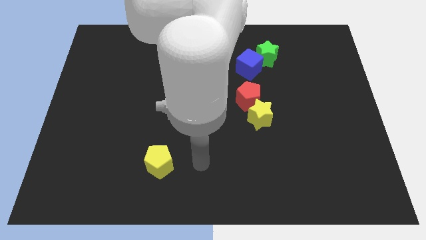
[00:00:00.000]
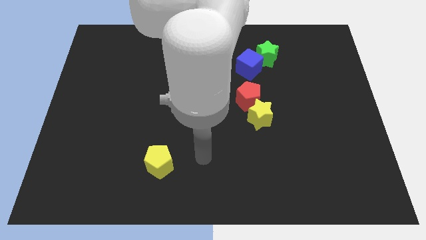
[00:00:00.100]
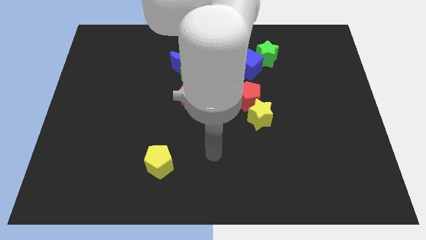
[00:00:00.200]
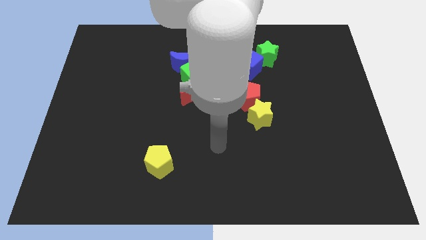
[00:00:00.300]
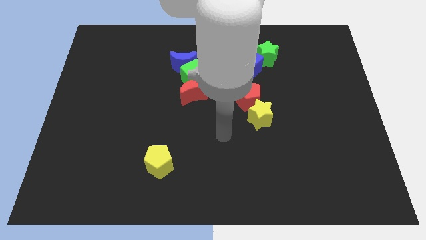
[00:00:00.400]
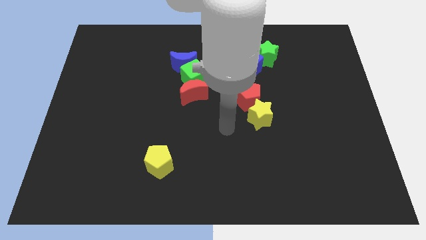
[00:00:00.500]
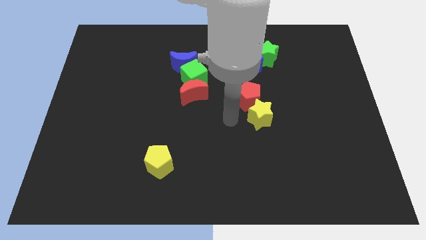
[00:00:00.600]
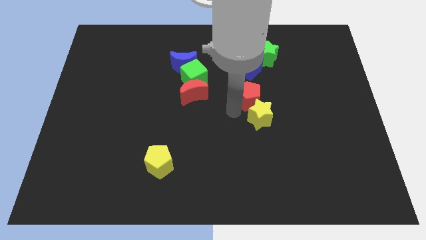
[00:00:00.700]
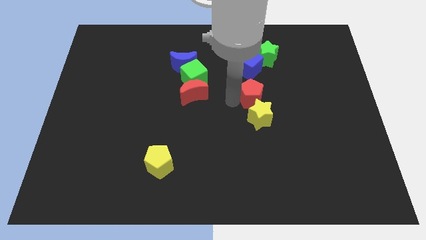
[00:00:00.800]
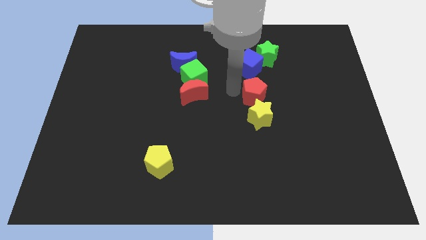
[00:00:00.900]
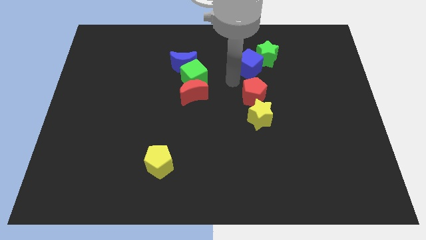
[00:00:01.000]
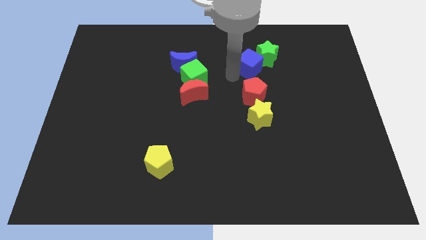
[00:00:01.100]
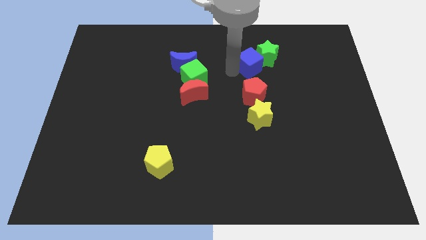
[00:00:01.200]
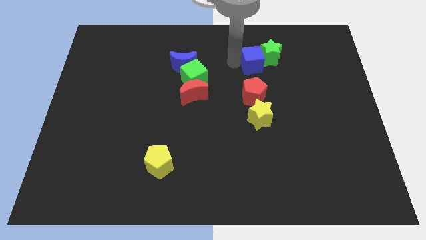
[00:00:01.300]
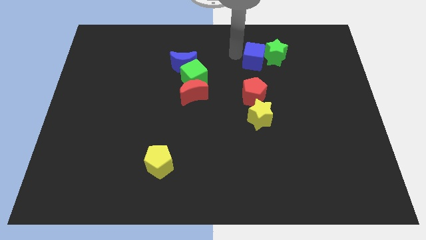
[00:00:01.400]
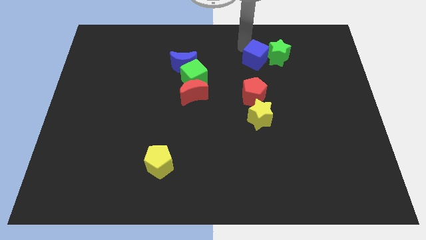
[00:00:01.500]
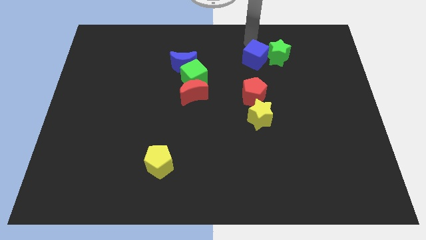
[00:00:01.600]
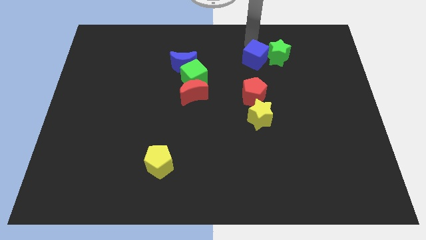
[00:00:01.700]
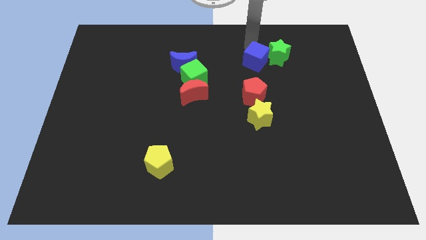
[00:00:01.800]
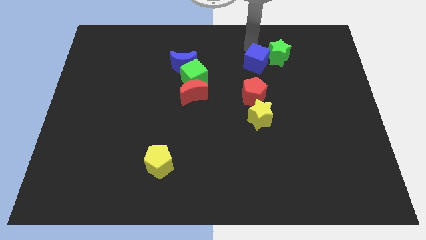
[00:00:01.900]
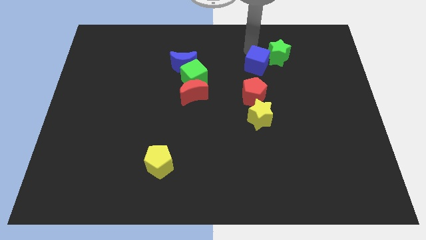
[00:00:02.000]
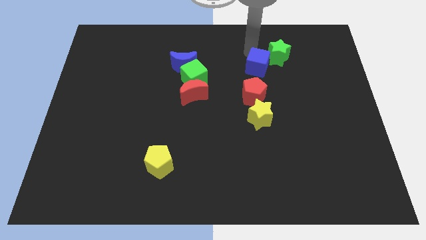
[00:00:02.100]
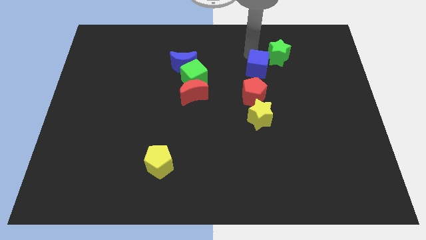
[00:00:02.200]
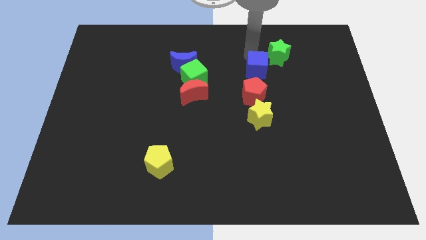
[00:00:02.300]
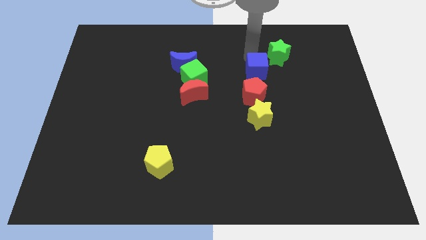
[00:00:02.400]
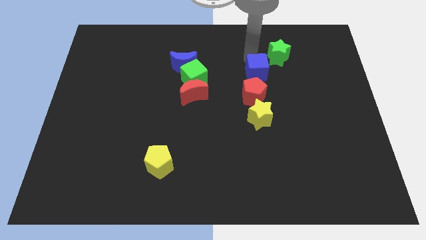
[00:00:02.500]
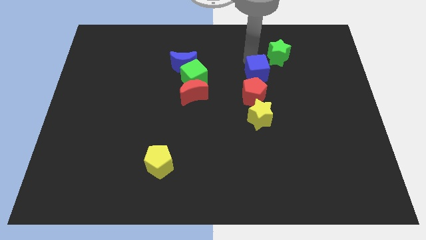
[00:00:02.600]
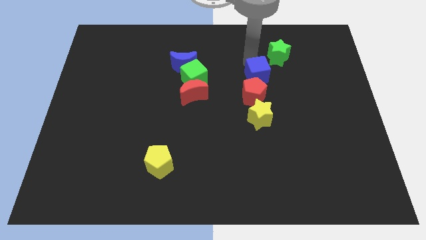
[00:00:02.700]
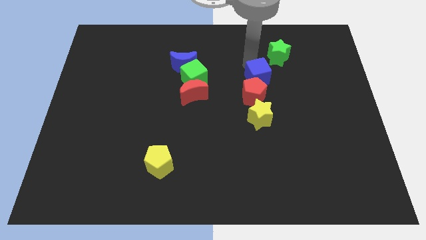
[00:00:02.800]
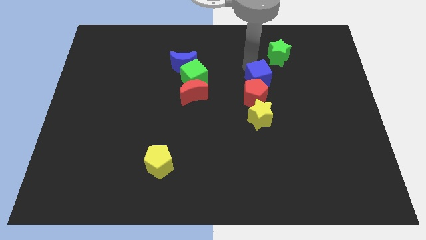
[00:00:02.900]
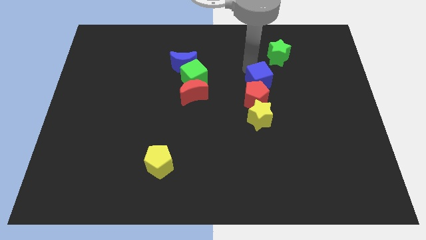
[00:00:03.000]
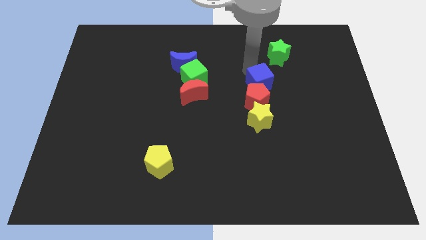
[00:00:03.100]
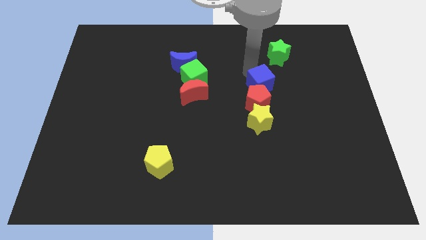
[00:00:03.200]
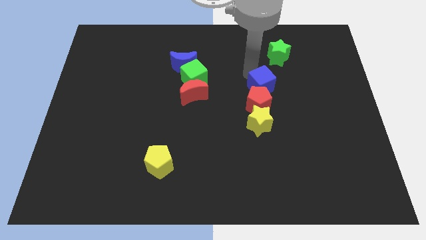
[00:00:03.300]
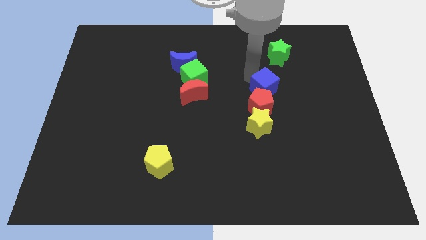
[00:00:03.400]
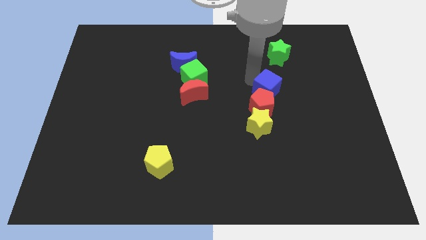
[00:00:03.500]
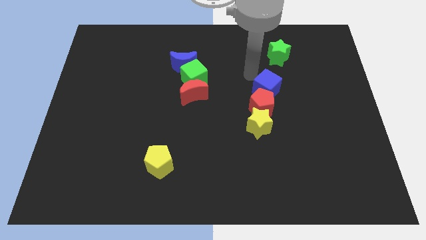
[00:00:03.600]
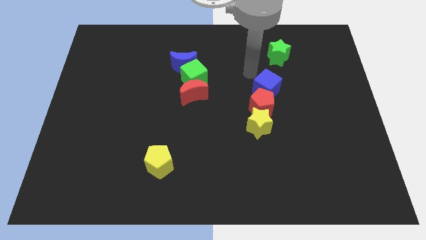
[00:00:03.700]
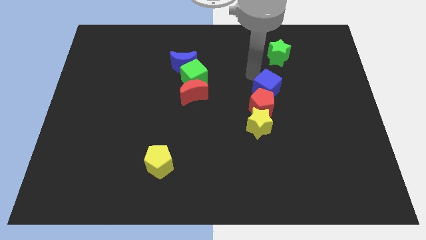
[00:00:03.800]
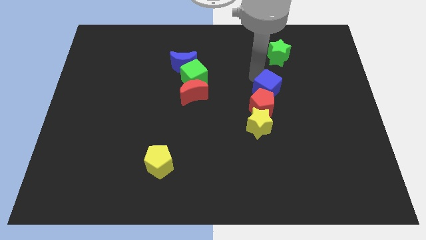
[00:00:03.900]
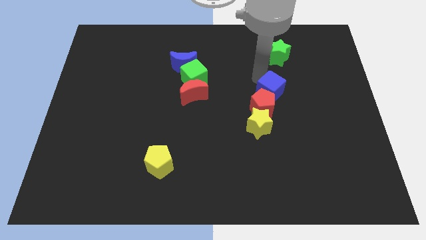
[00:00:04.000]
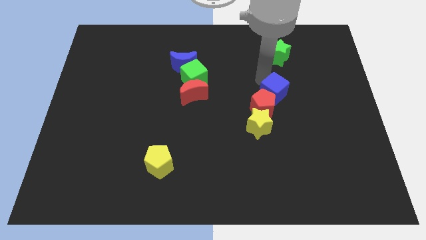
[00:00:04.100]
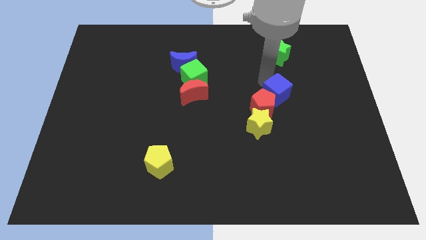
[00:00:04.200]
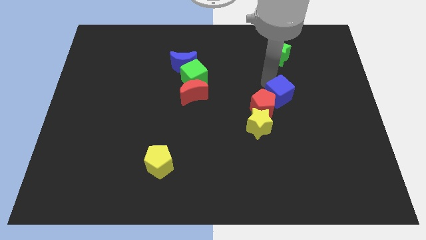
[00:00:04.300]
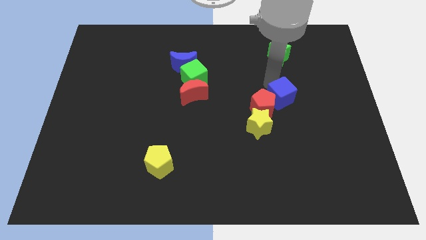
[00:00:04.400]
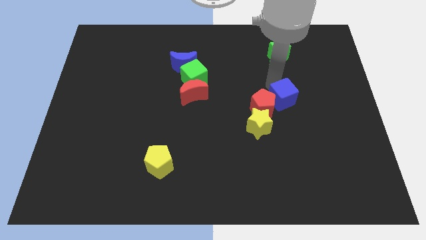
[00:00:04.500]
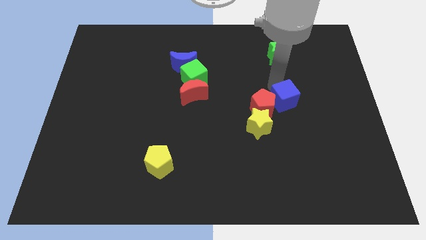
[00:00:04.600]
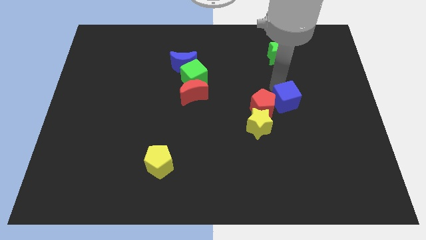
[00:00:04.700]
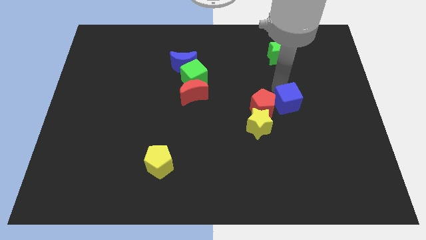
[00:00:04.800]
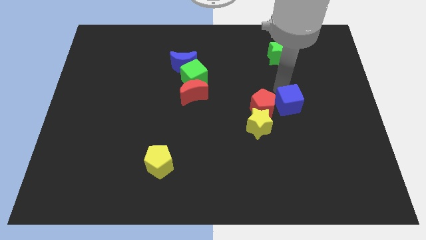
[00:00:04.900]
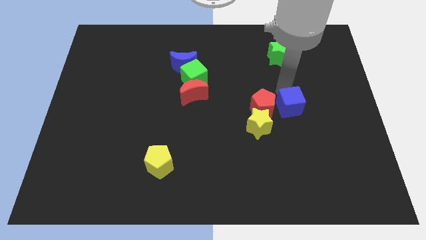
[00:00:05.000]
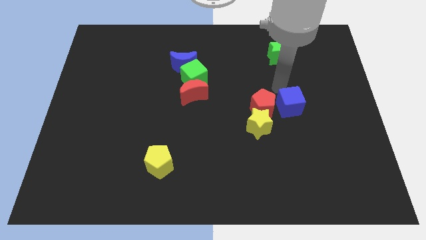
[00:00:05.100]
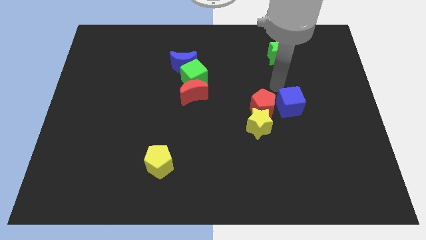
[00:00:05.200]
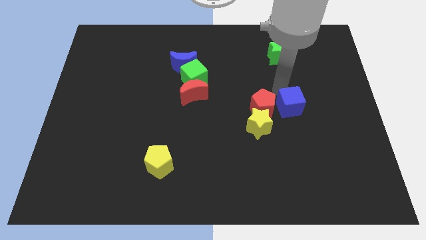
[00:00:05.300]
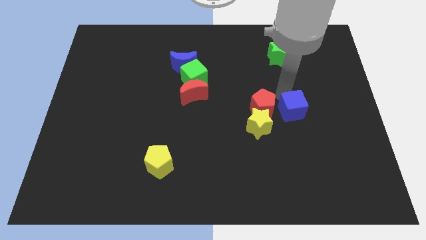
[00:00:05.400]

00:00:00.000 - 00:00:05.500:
put the blue cube to the right side of the yellow star

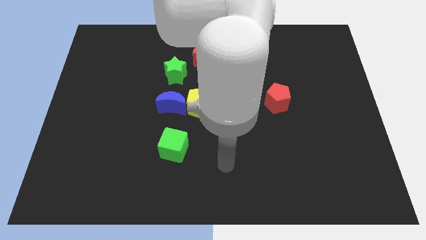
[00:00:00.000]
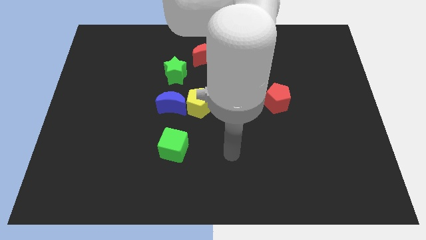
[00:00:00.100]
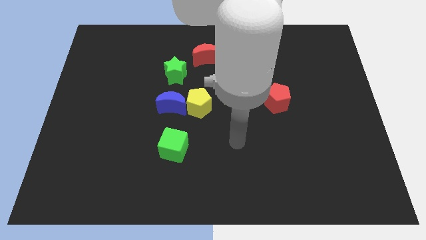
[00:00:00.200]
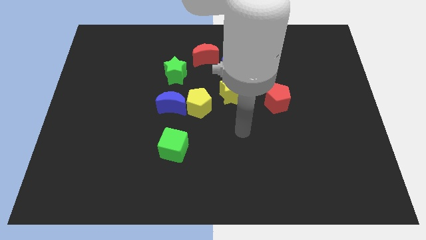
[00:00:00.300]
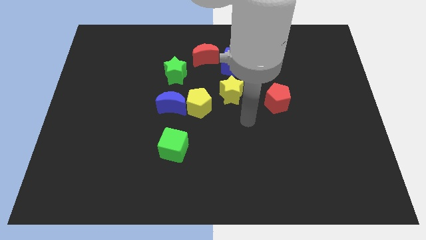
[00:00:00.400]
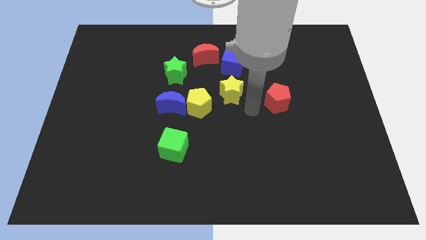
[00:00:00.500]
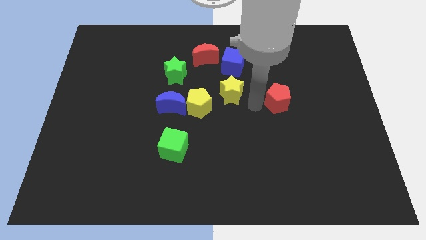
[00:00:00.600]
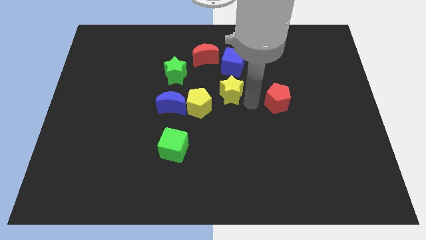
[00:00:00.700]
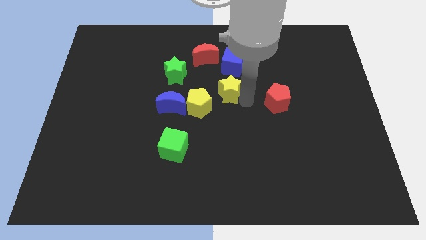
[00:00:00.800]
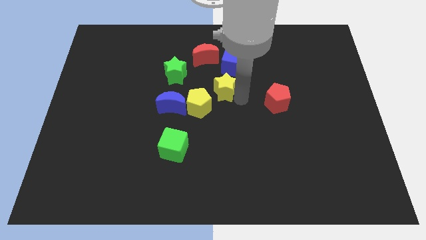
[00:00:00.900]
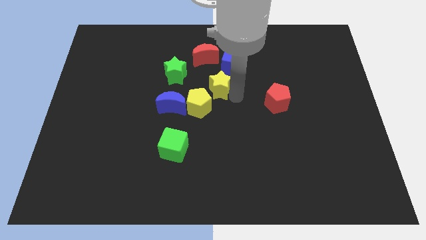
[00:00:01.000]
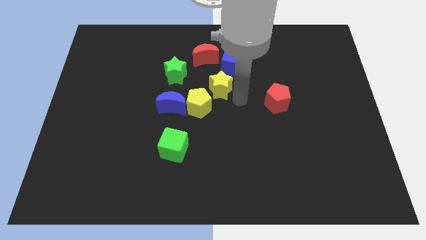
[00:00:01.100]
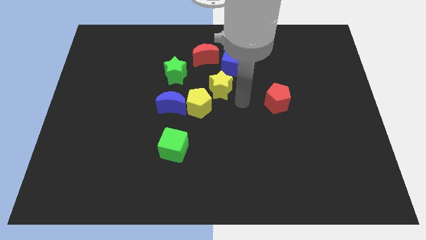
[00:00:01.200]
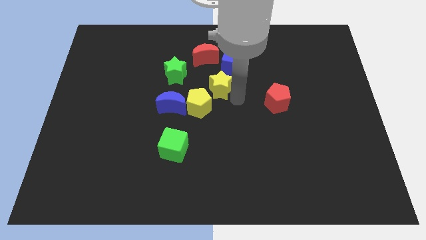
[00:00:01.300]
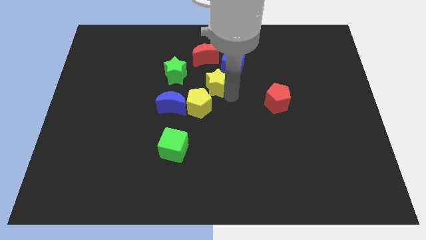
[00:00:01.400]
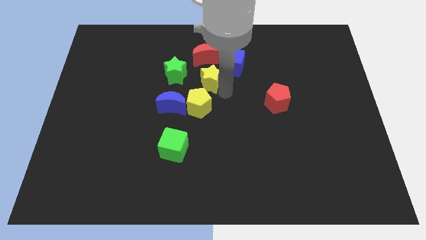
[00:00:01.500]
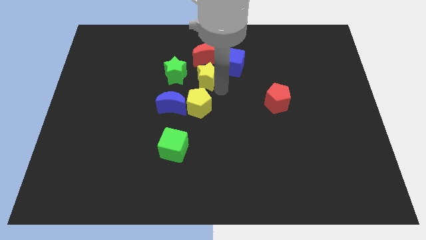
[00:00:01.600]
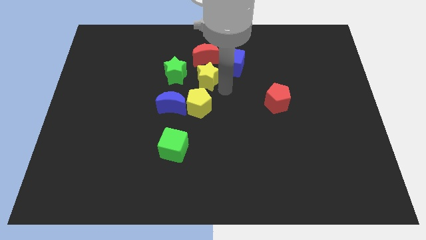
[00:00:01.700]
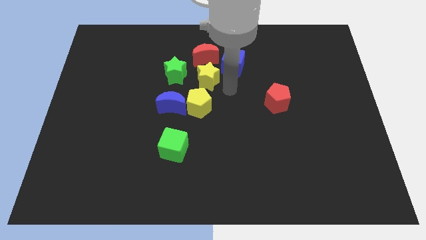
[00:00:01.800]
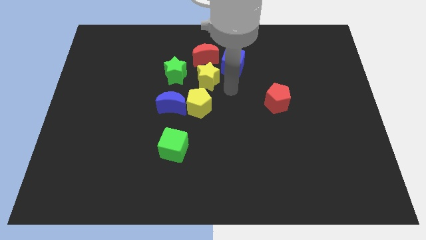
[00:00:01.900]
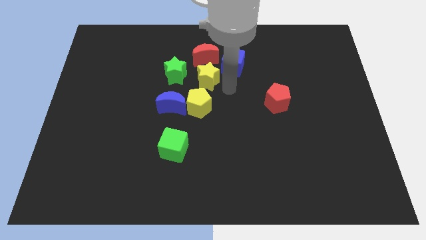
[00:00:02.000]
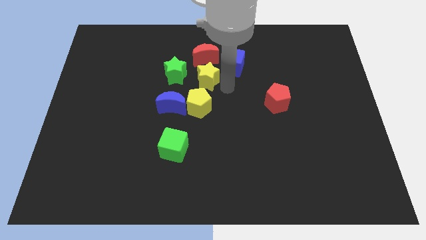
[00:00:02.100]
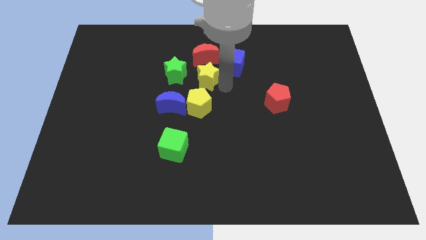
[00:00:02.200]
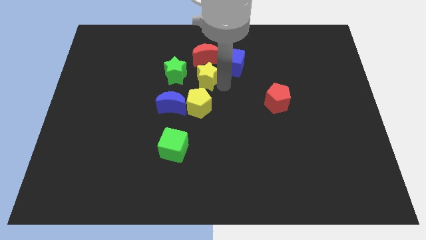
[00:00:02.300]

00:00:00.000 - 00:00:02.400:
move the yellow star to the left of the blue cube
